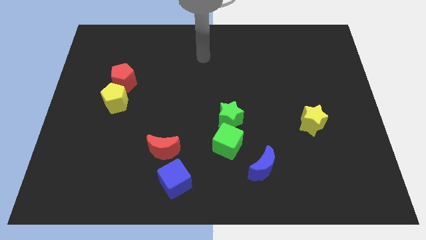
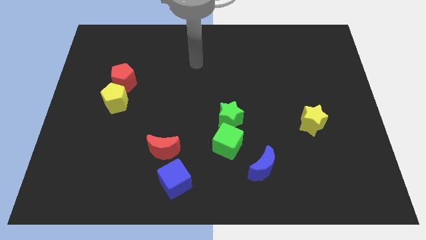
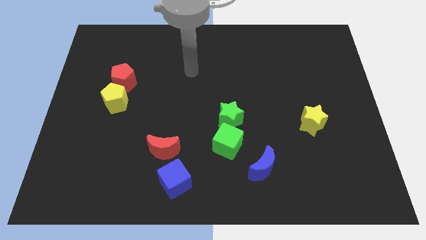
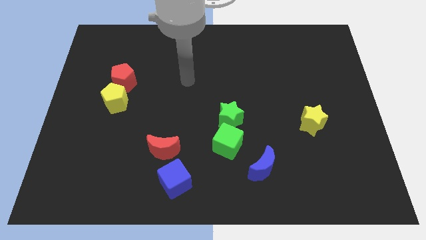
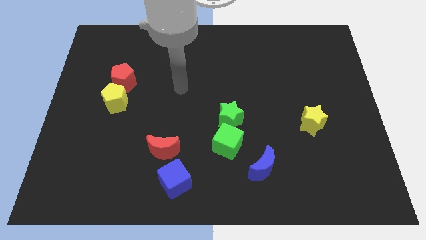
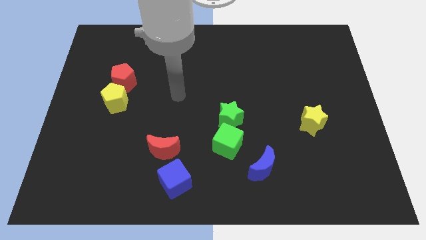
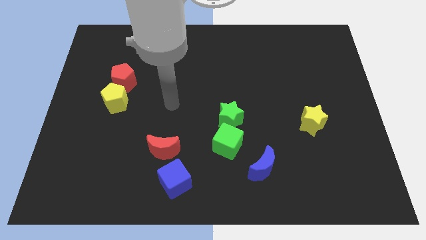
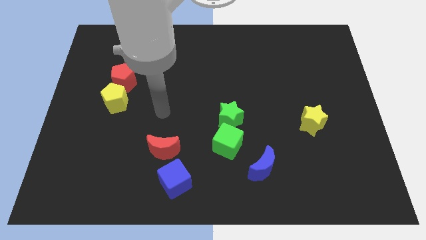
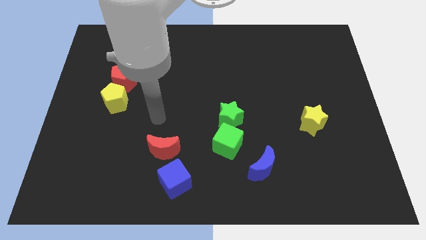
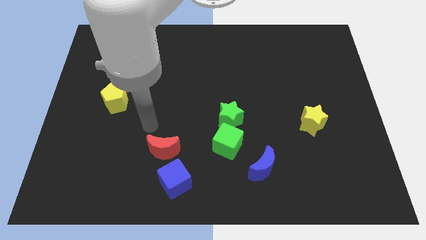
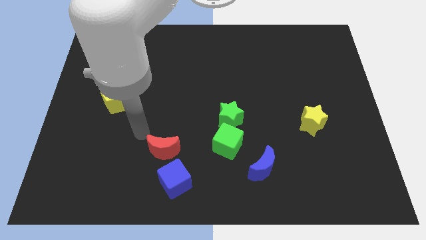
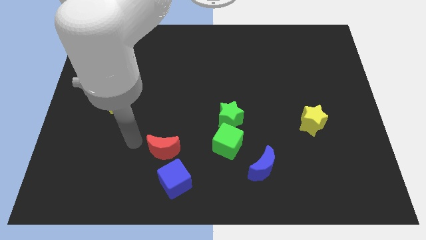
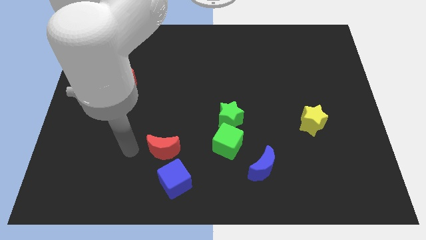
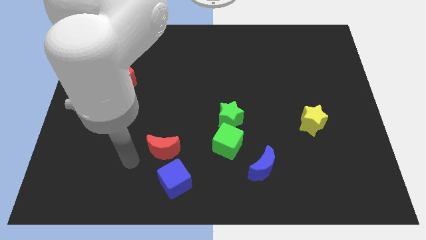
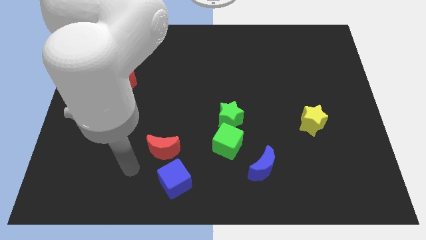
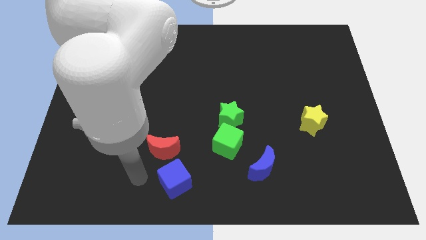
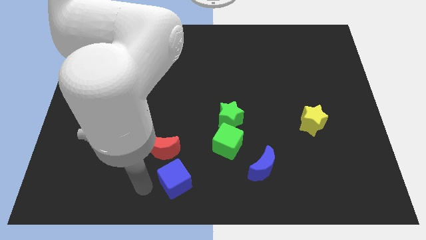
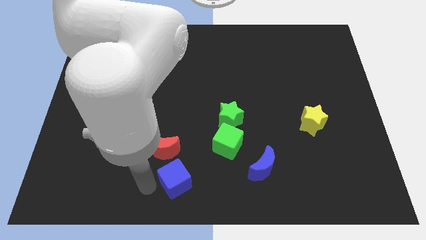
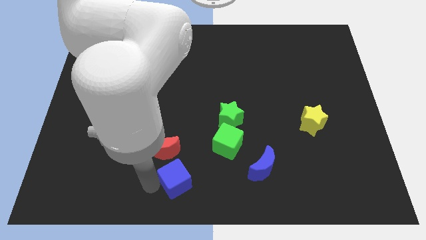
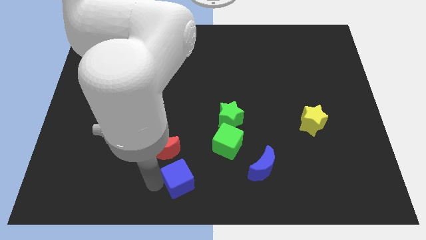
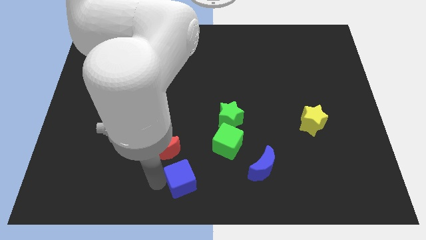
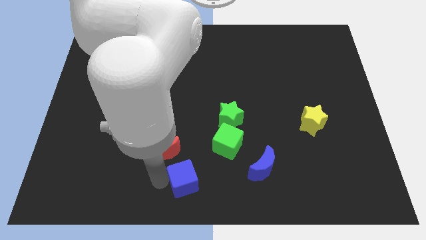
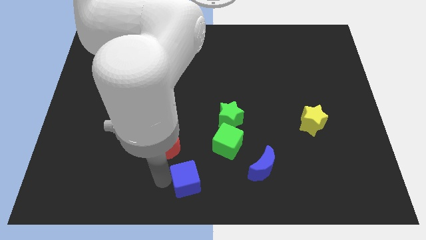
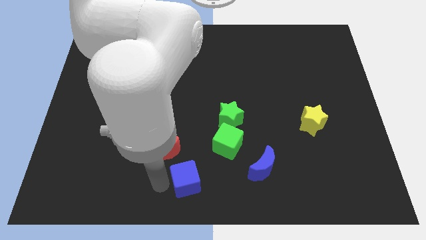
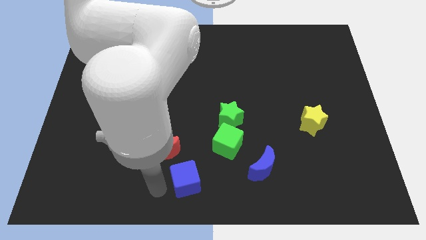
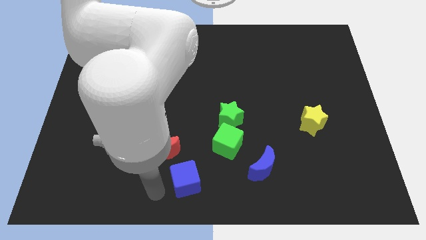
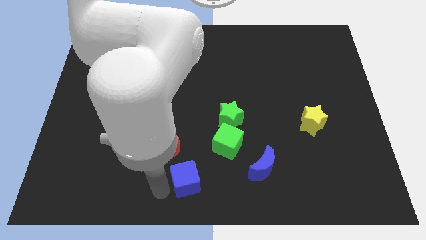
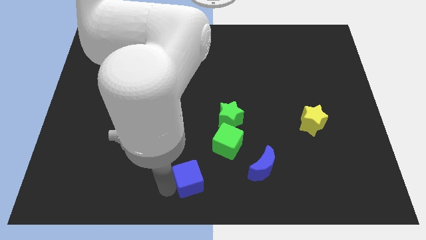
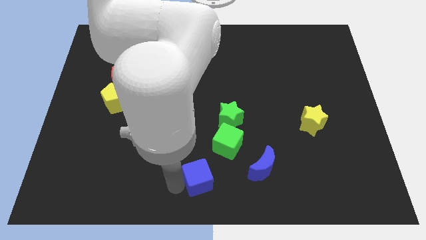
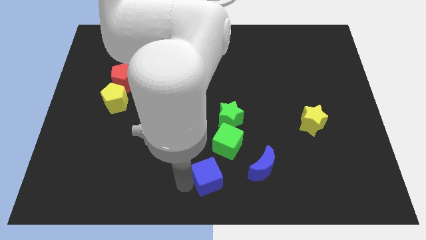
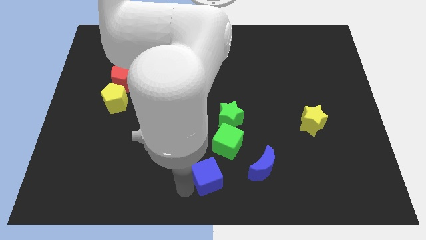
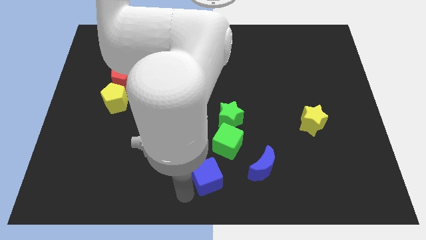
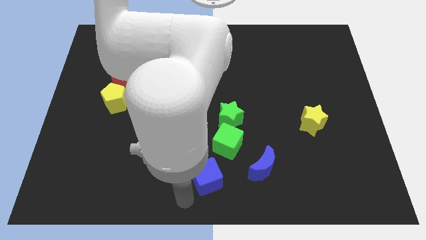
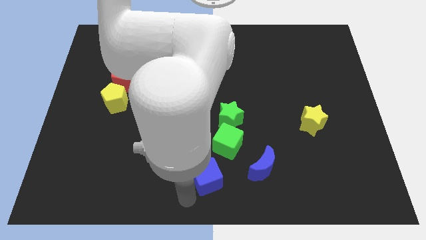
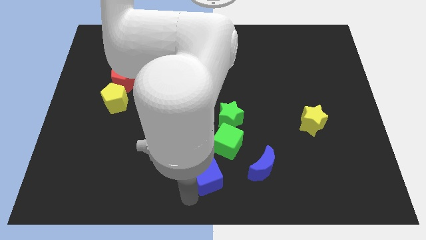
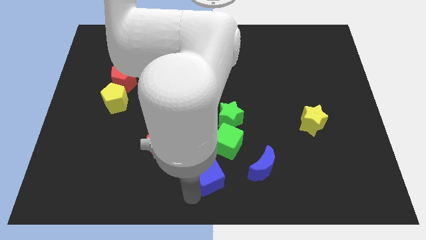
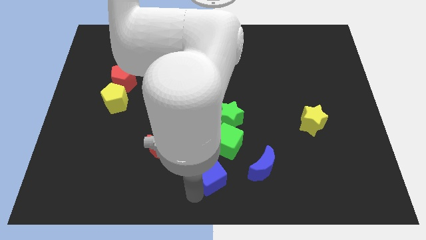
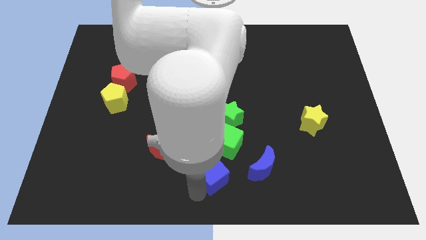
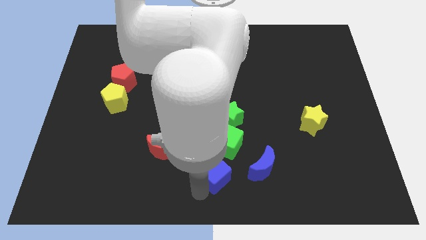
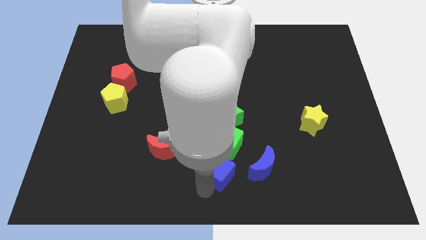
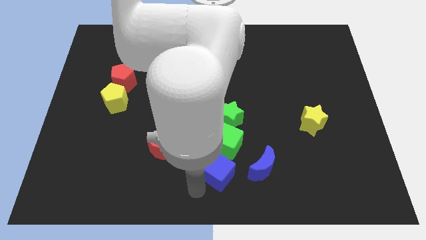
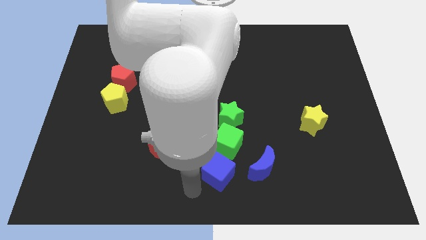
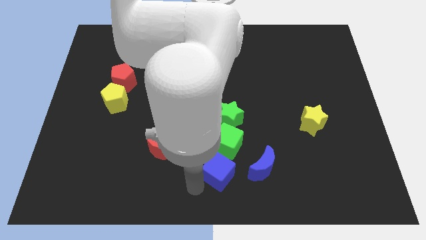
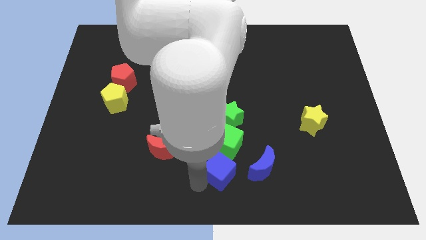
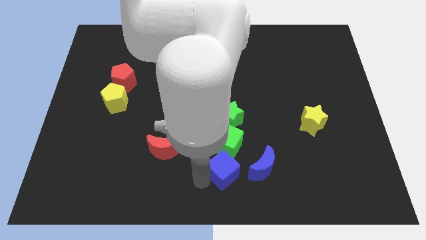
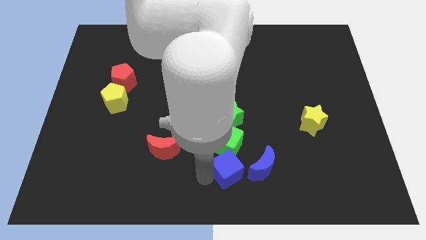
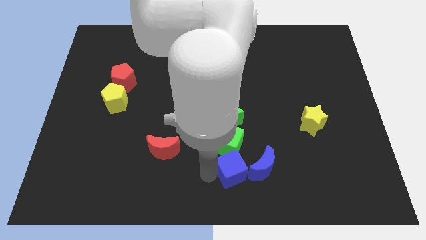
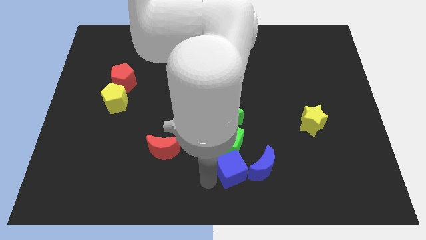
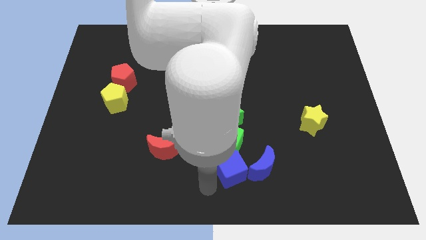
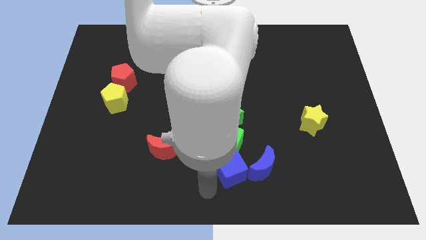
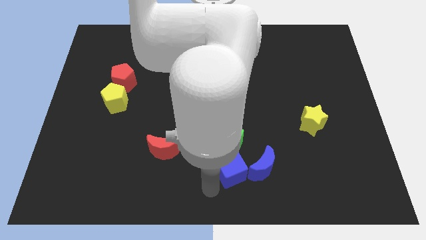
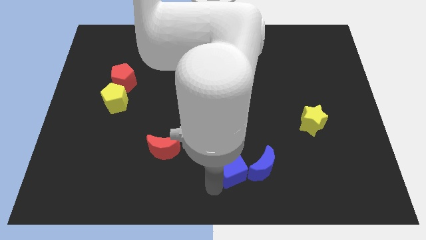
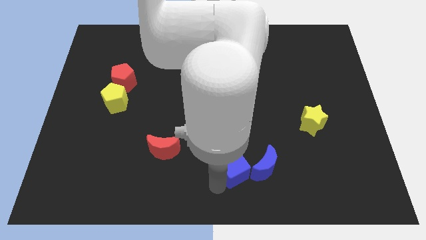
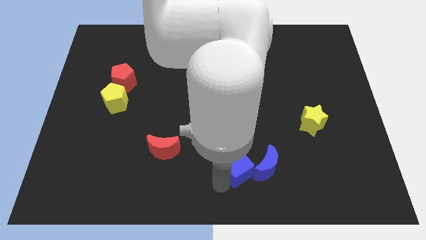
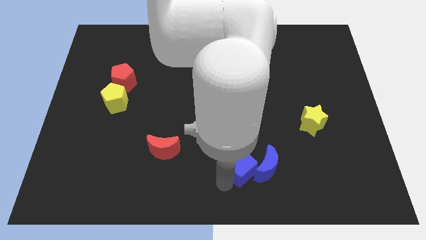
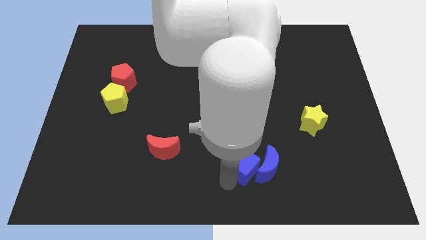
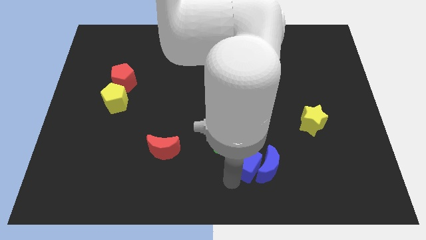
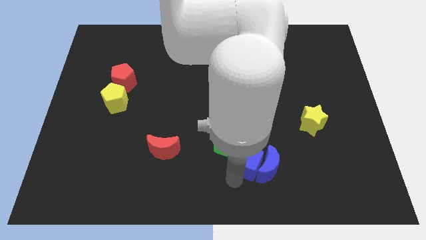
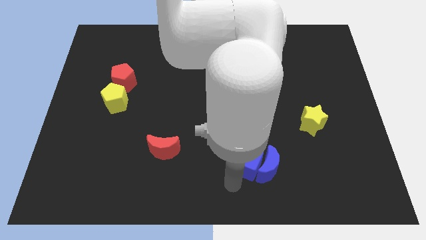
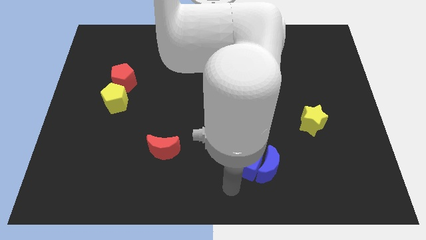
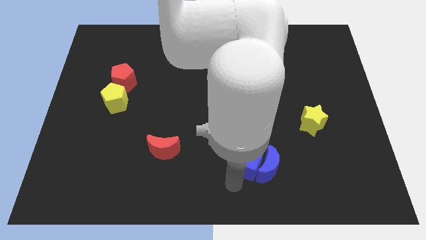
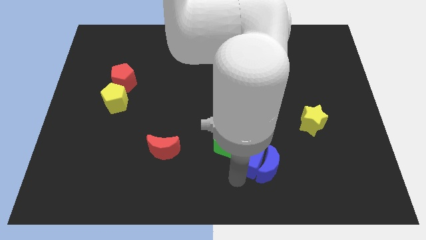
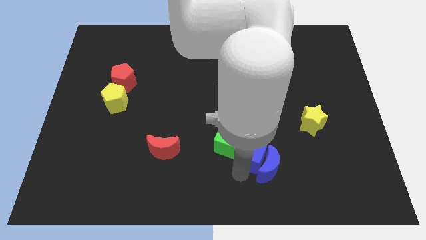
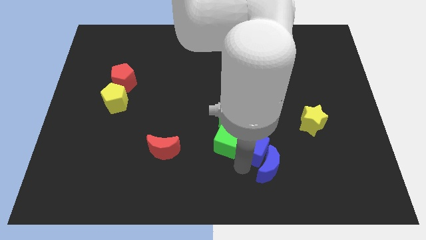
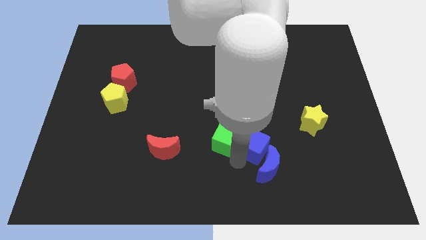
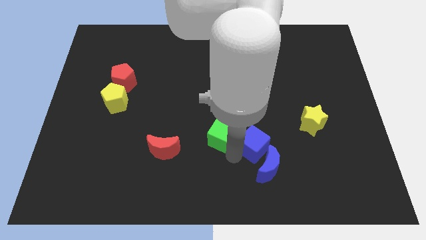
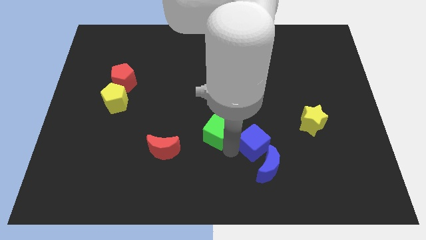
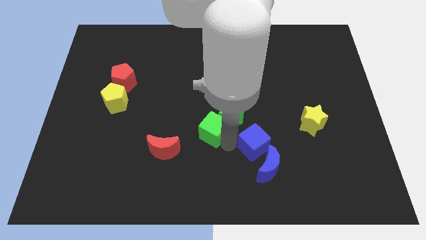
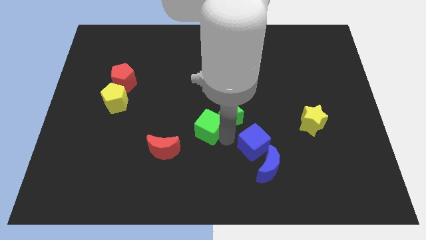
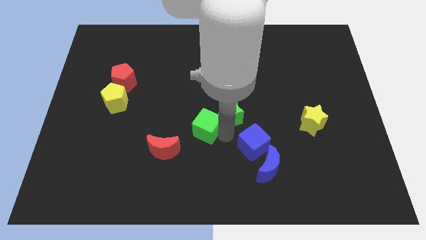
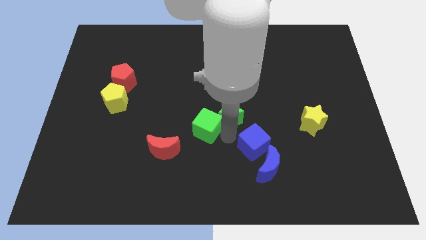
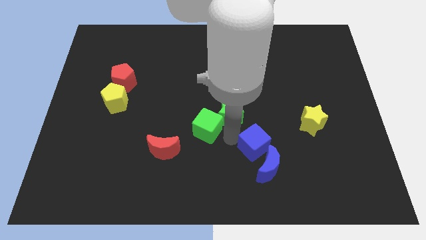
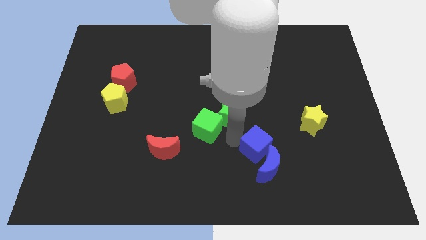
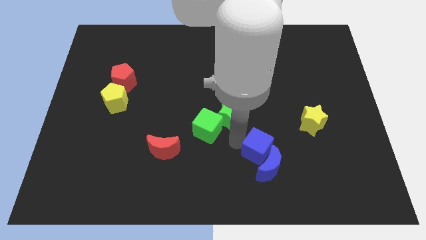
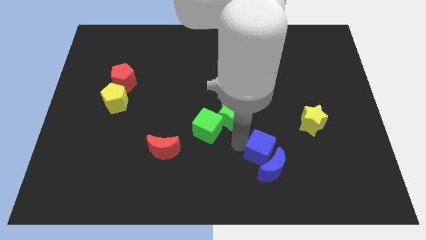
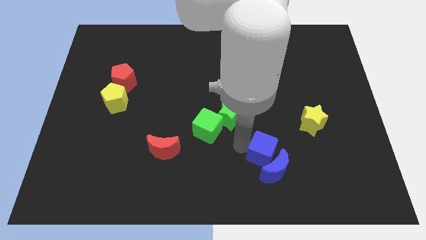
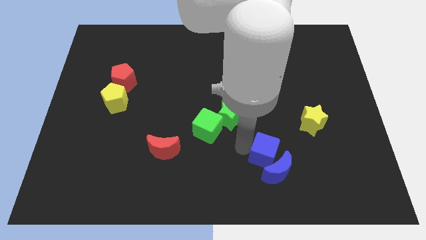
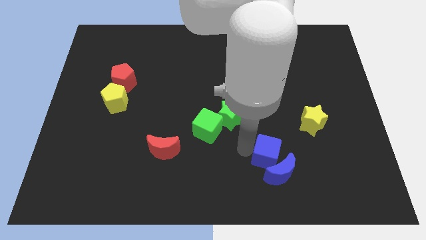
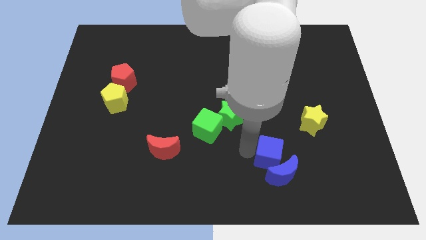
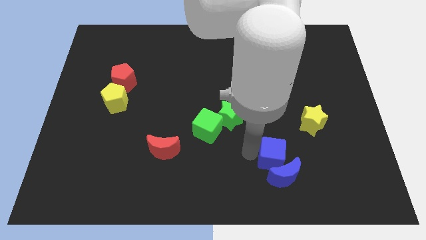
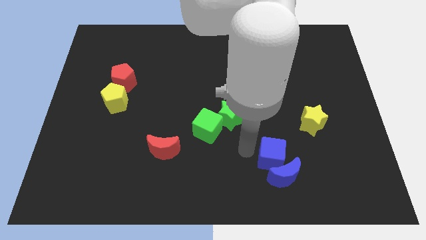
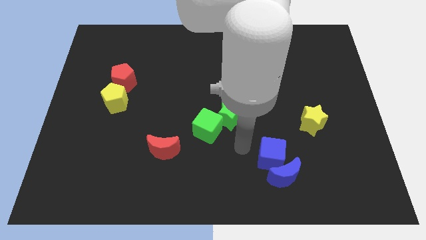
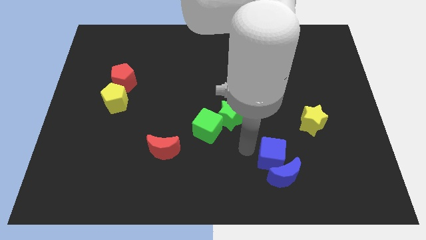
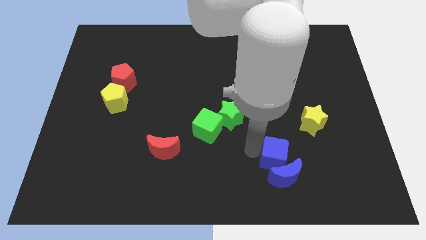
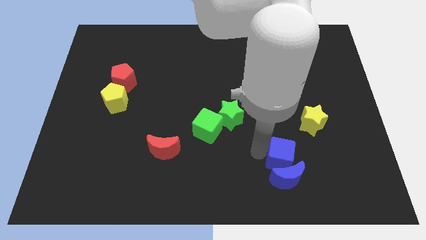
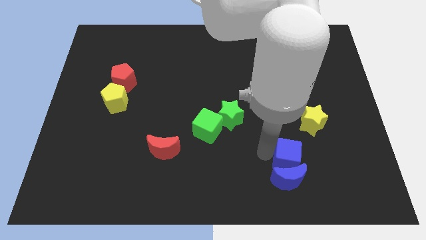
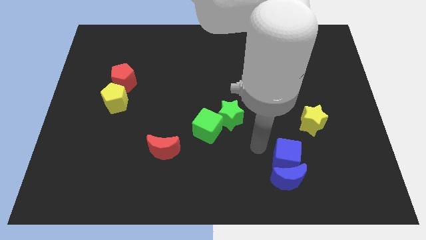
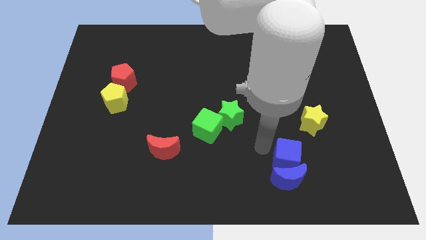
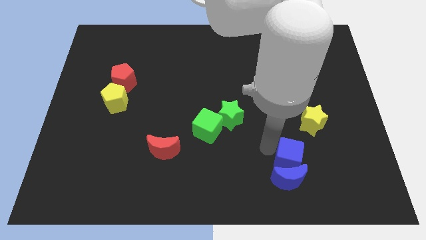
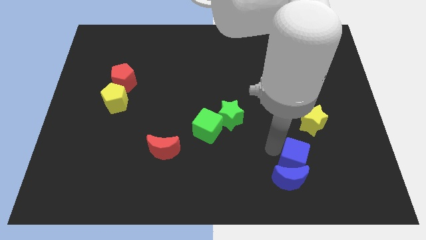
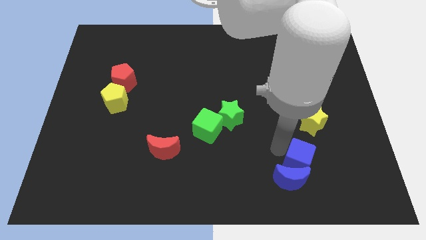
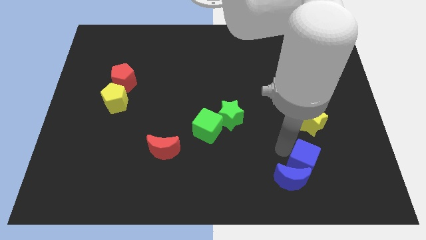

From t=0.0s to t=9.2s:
push the blue cube just right of the blue moon
